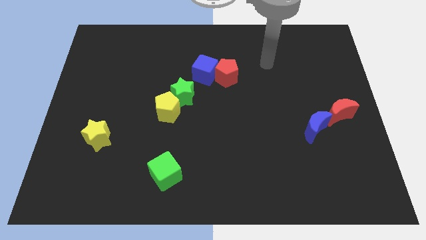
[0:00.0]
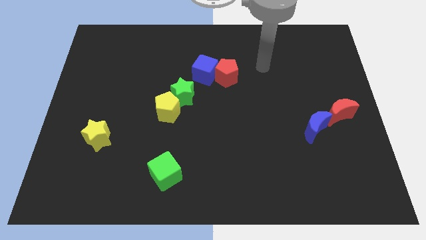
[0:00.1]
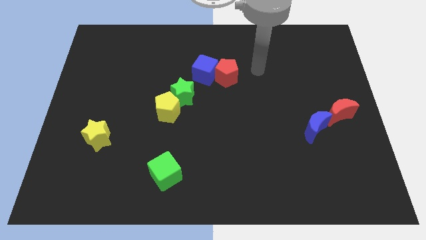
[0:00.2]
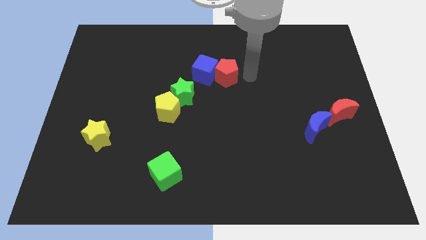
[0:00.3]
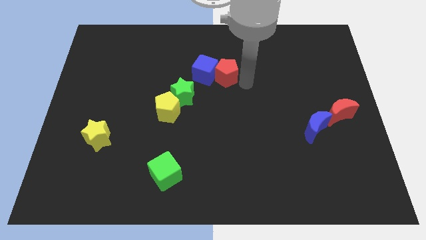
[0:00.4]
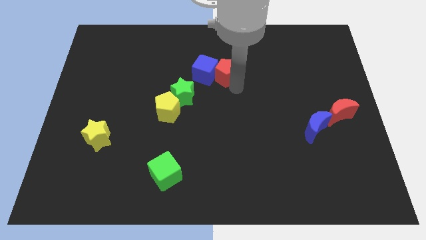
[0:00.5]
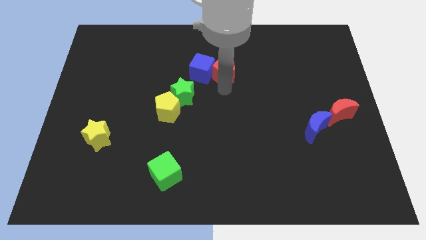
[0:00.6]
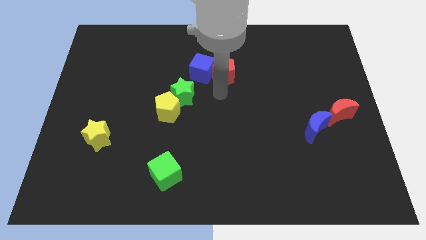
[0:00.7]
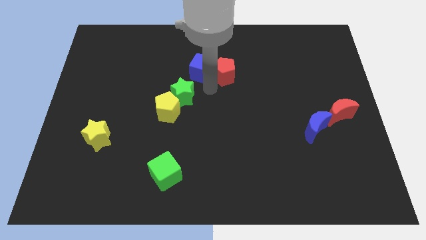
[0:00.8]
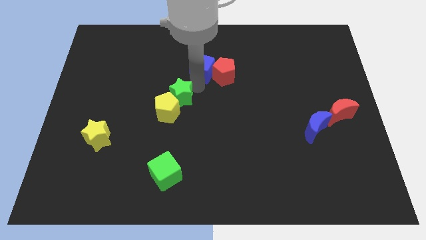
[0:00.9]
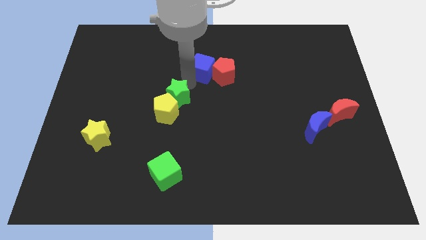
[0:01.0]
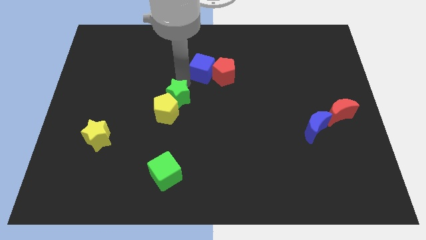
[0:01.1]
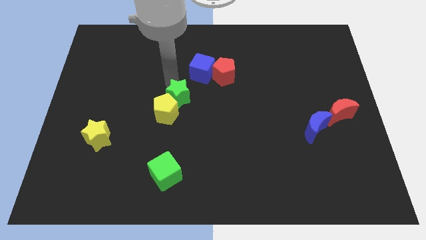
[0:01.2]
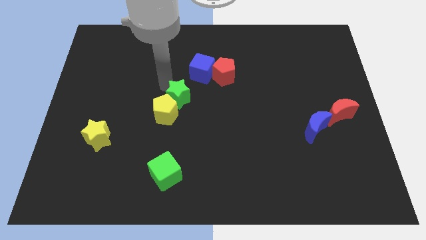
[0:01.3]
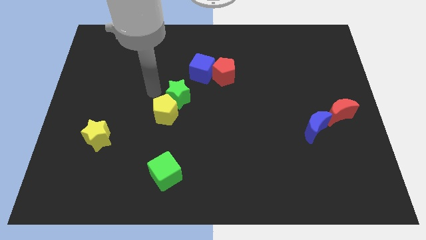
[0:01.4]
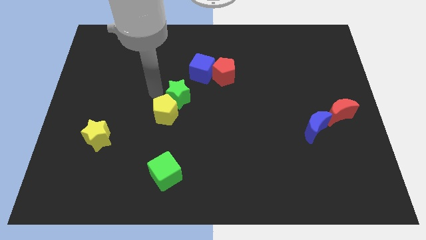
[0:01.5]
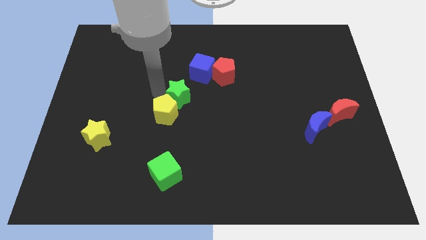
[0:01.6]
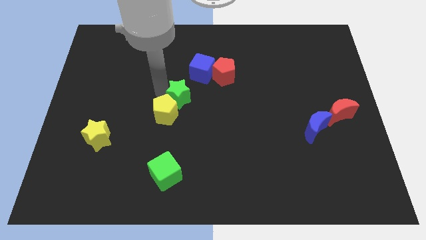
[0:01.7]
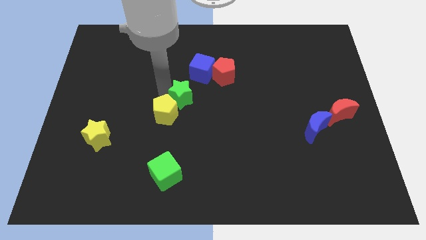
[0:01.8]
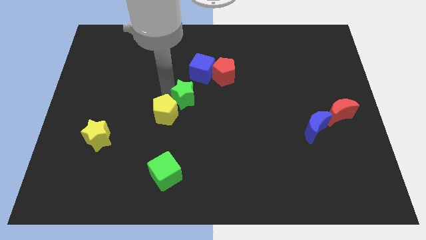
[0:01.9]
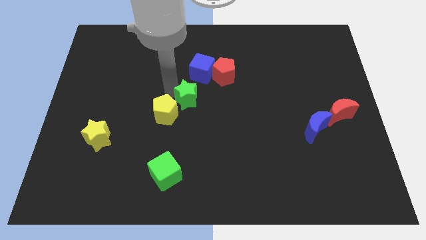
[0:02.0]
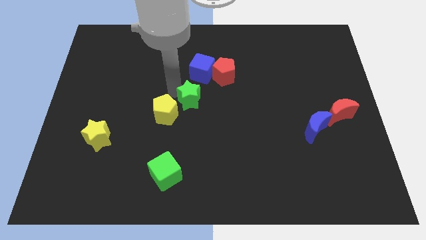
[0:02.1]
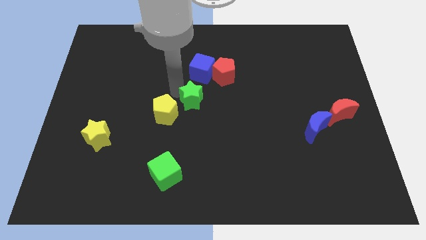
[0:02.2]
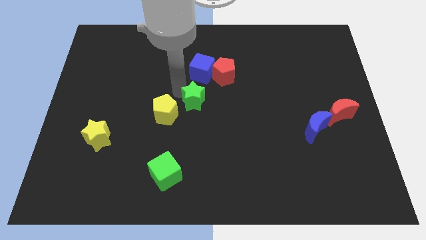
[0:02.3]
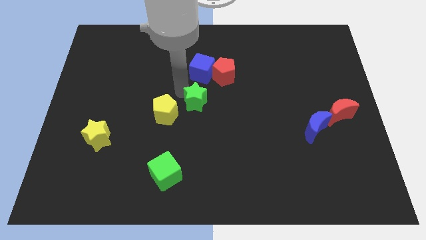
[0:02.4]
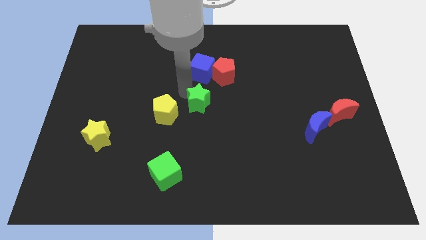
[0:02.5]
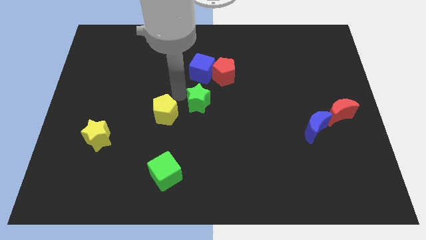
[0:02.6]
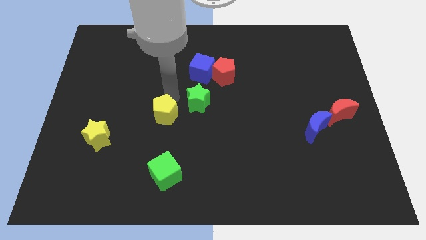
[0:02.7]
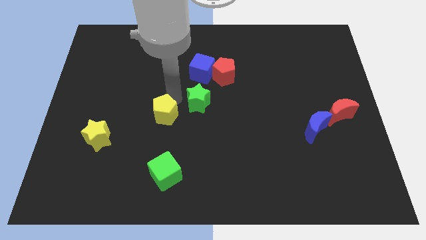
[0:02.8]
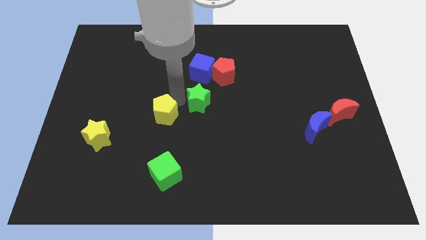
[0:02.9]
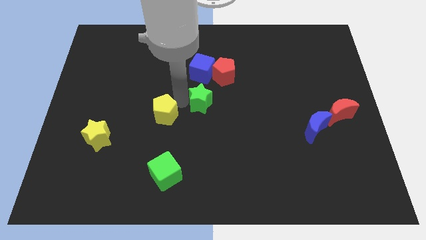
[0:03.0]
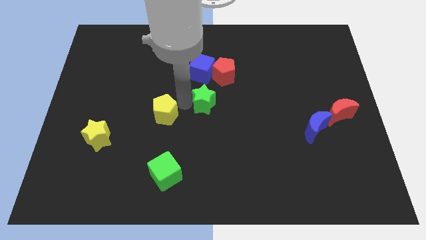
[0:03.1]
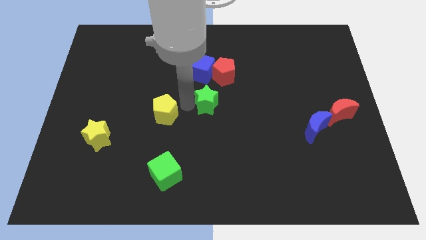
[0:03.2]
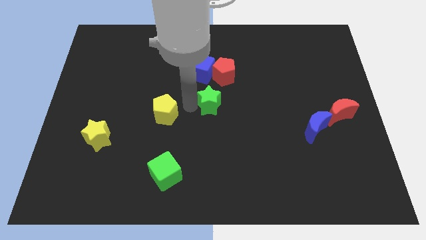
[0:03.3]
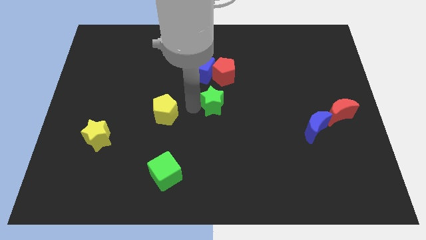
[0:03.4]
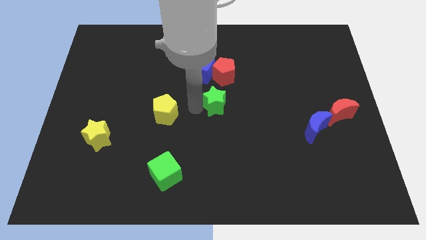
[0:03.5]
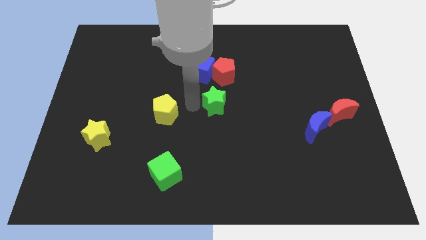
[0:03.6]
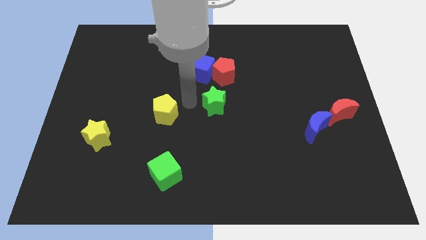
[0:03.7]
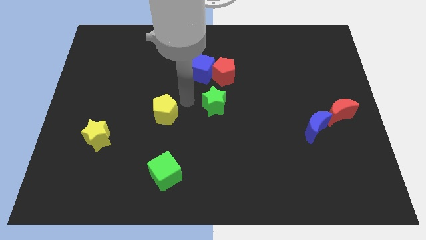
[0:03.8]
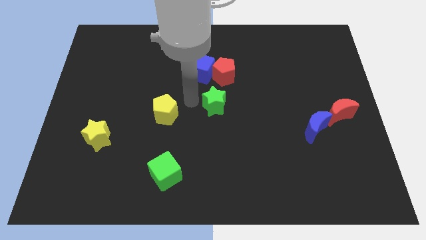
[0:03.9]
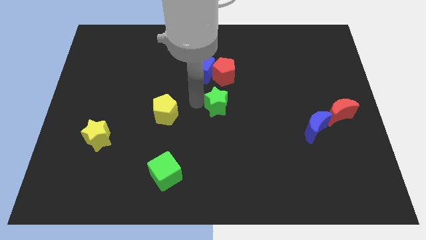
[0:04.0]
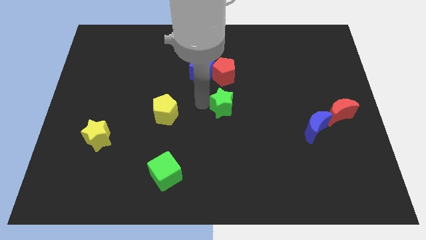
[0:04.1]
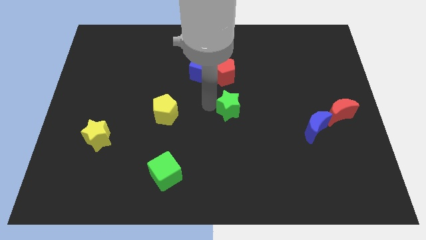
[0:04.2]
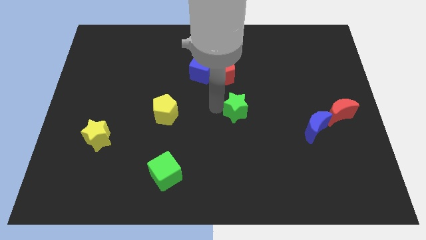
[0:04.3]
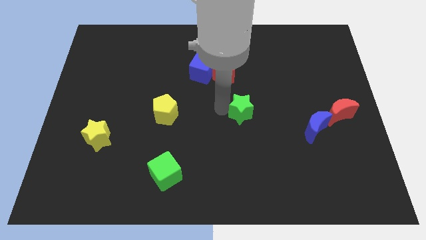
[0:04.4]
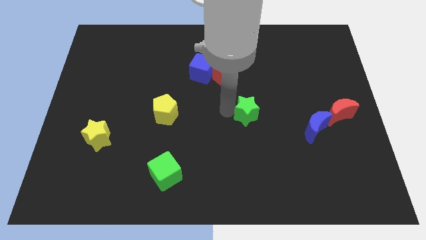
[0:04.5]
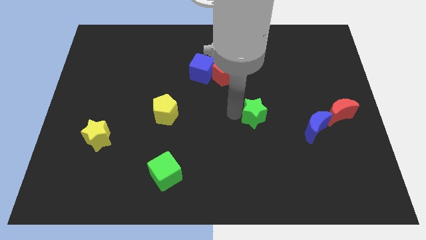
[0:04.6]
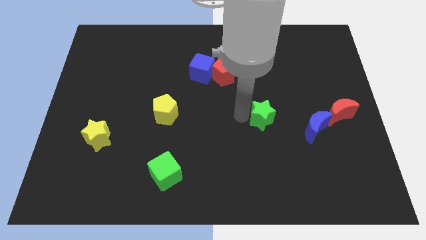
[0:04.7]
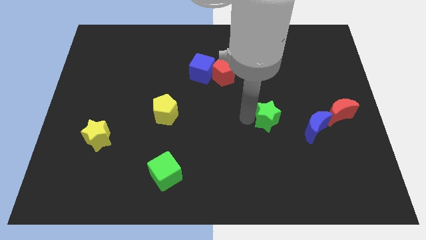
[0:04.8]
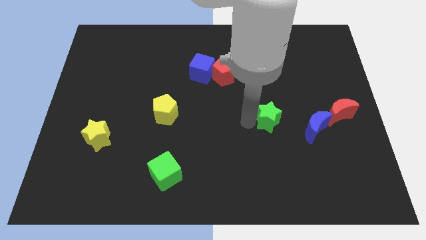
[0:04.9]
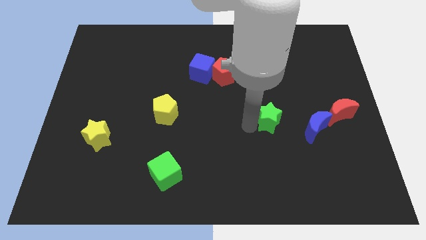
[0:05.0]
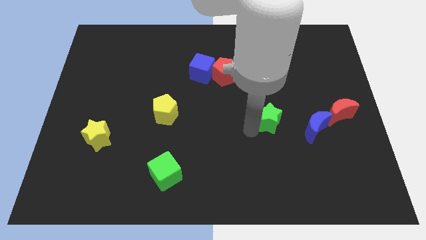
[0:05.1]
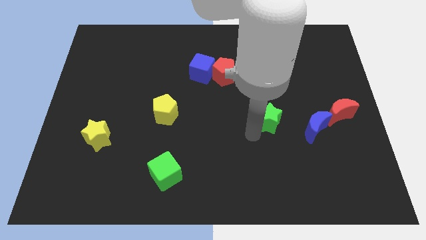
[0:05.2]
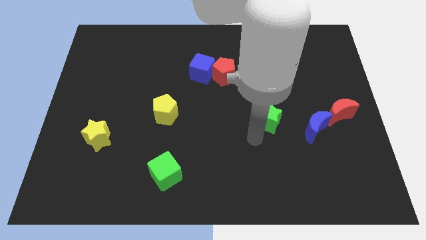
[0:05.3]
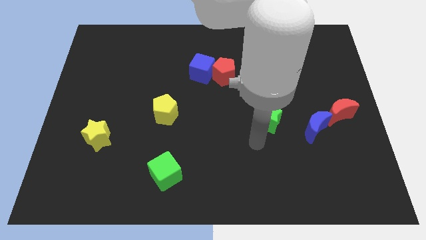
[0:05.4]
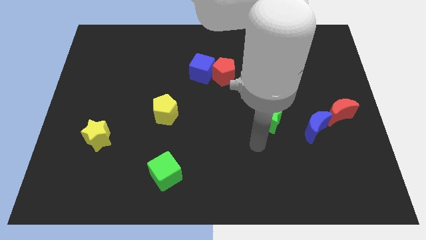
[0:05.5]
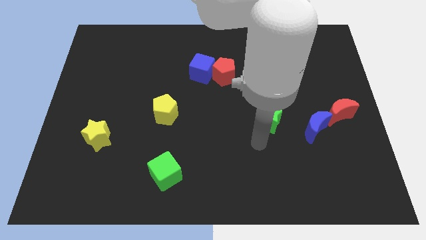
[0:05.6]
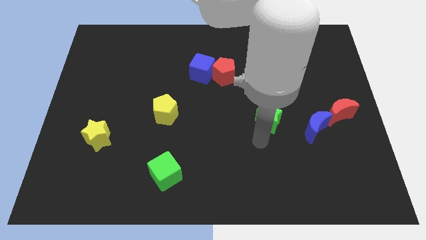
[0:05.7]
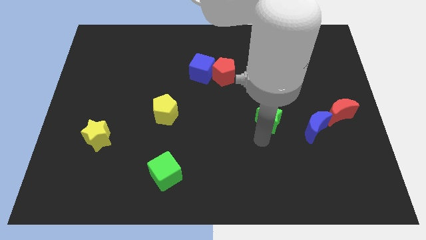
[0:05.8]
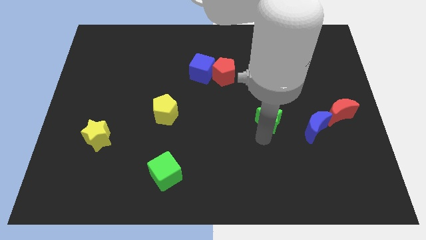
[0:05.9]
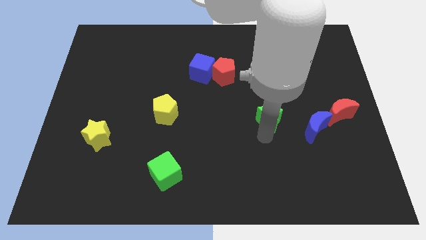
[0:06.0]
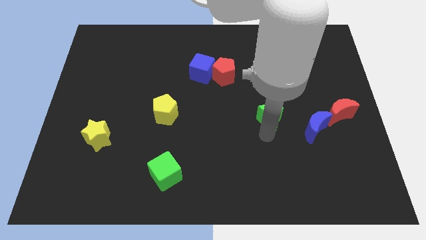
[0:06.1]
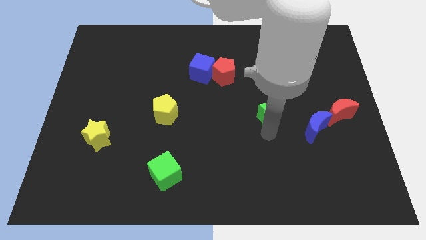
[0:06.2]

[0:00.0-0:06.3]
slide the green star to the top left side of the blue moon
